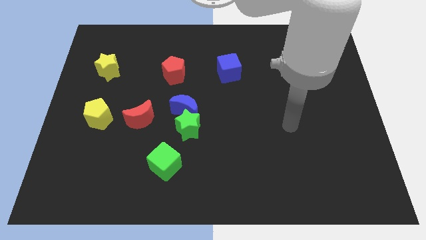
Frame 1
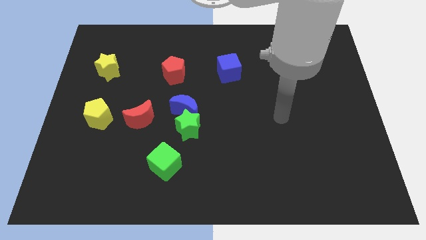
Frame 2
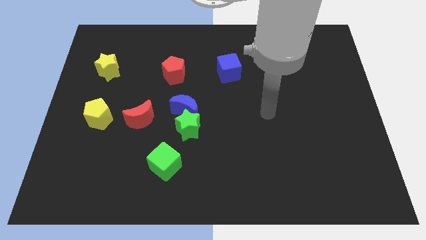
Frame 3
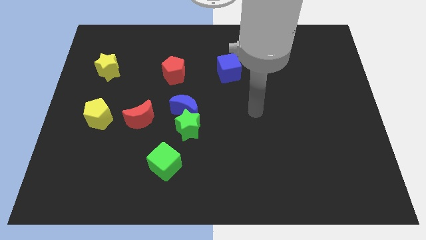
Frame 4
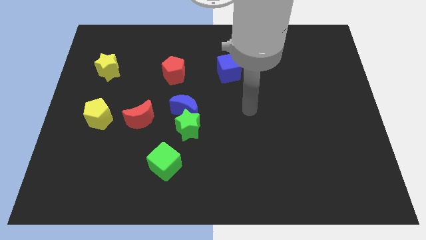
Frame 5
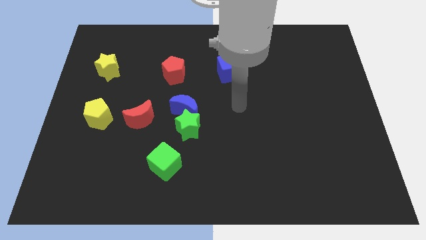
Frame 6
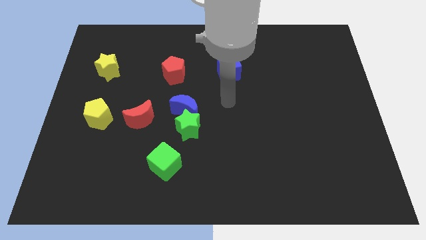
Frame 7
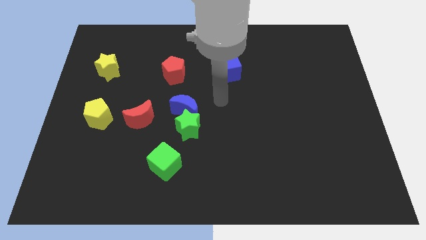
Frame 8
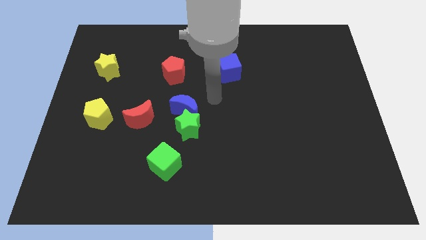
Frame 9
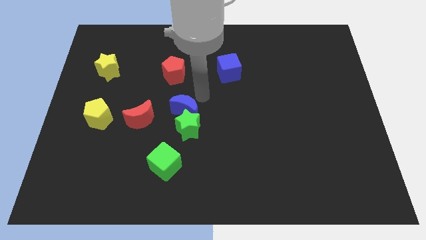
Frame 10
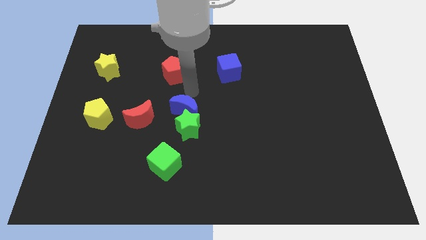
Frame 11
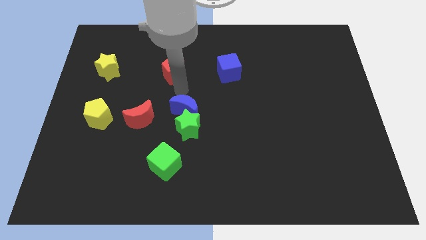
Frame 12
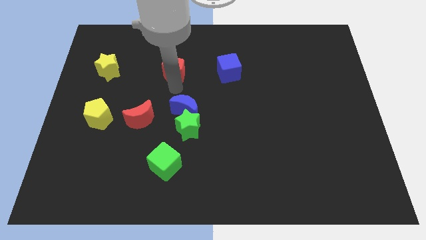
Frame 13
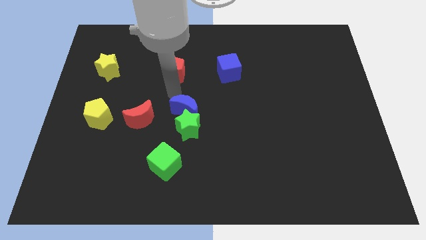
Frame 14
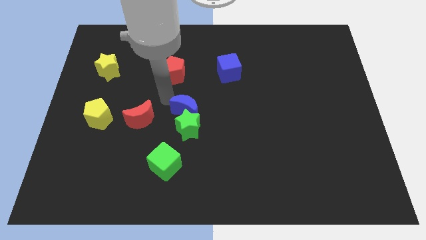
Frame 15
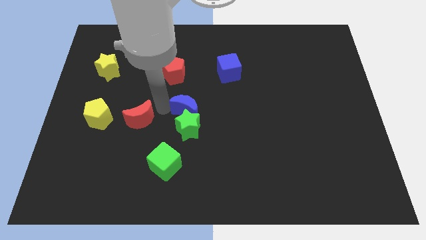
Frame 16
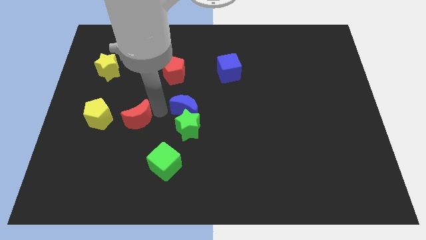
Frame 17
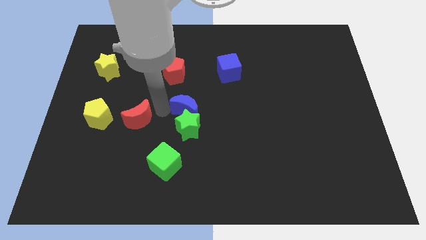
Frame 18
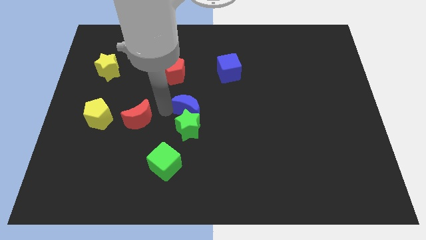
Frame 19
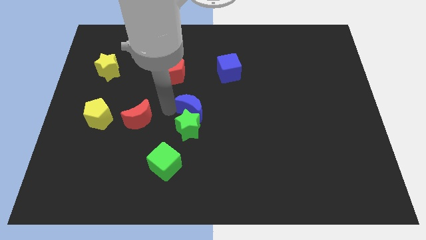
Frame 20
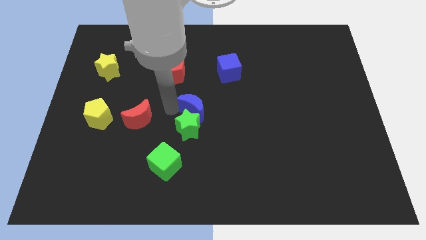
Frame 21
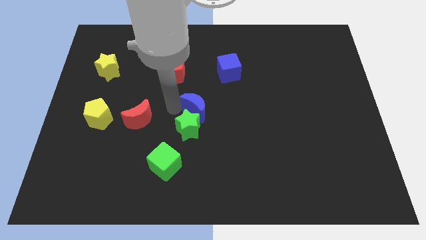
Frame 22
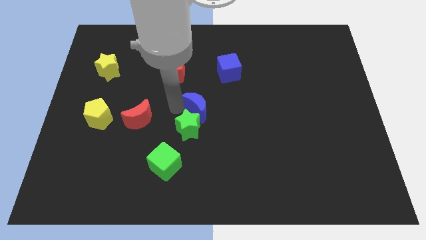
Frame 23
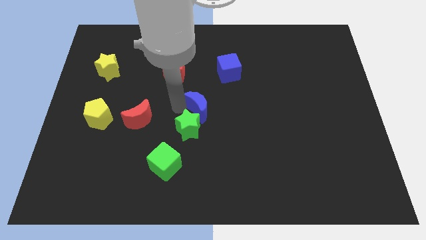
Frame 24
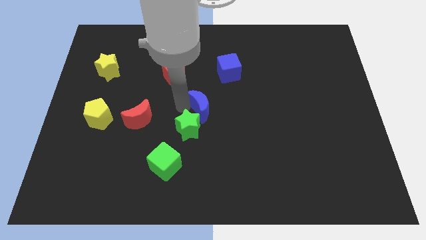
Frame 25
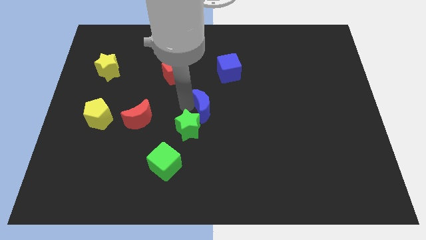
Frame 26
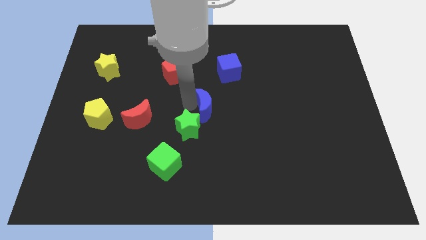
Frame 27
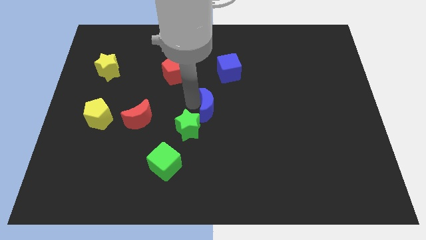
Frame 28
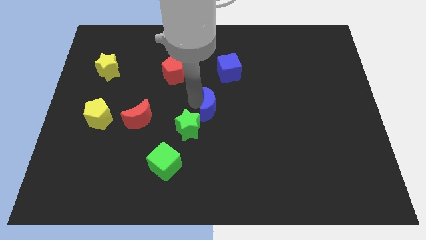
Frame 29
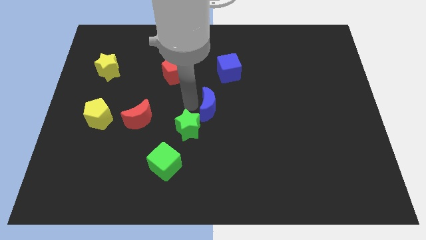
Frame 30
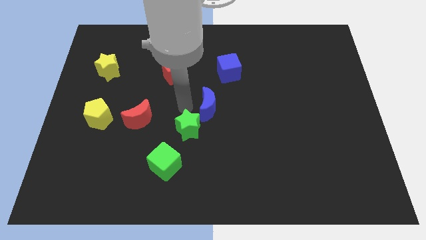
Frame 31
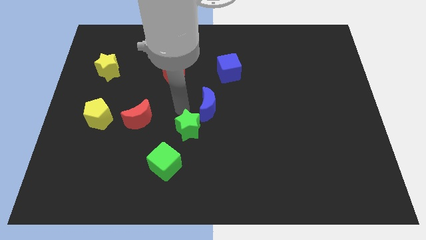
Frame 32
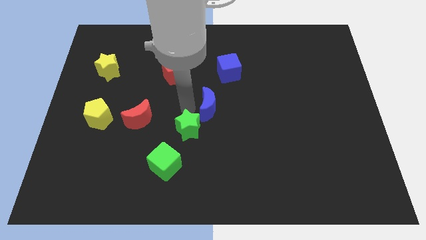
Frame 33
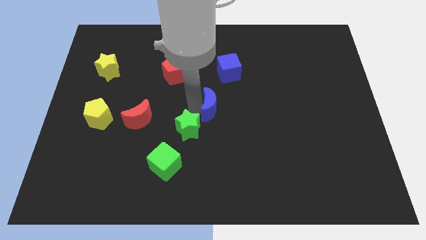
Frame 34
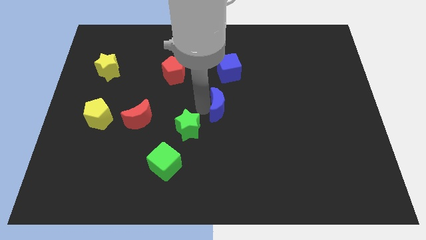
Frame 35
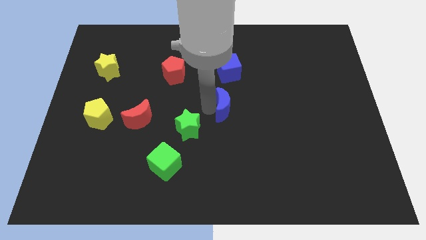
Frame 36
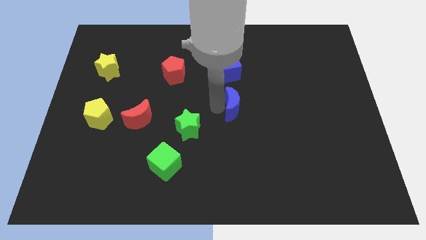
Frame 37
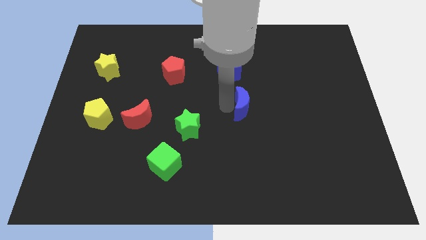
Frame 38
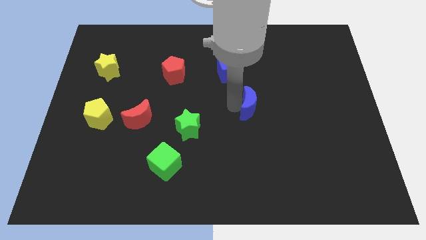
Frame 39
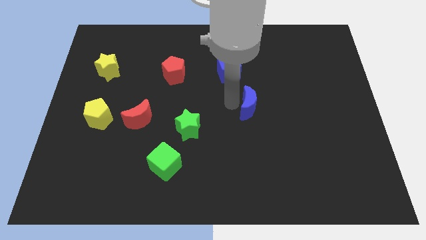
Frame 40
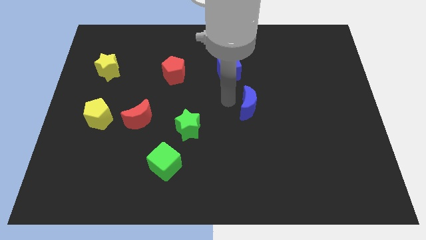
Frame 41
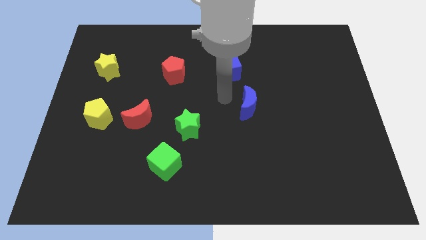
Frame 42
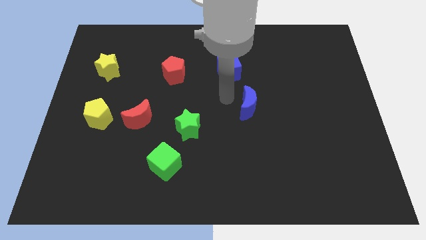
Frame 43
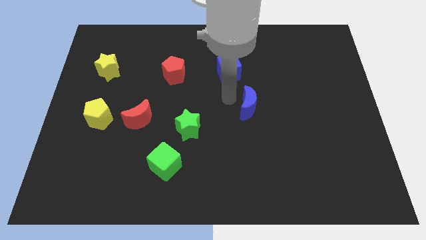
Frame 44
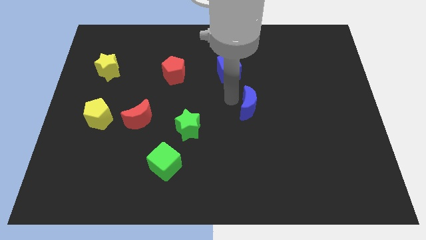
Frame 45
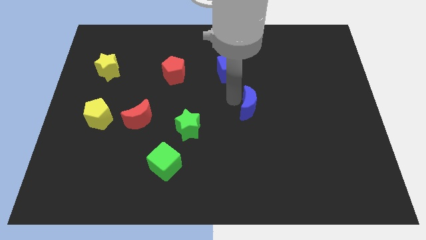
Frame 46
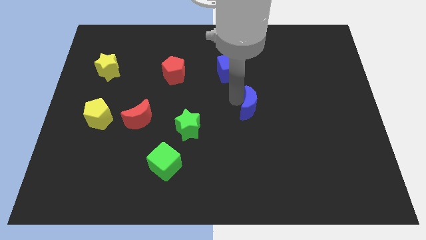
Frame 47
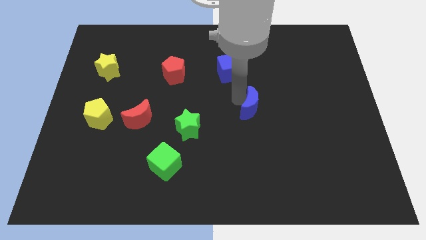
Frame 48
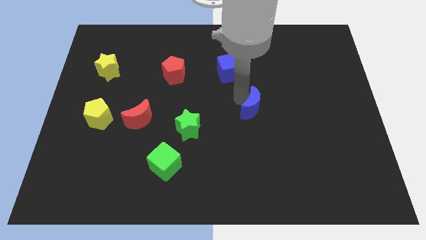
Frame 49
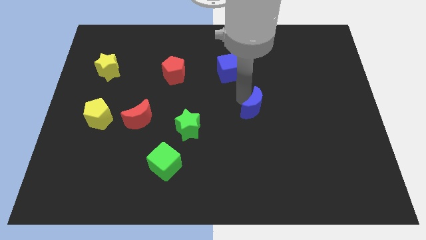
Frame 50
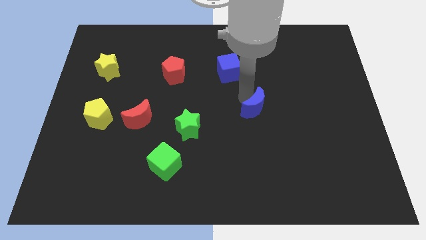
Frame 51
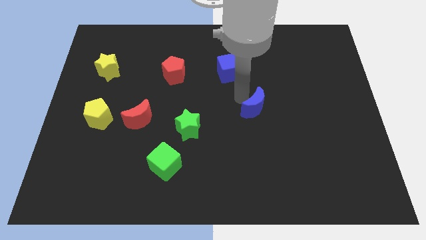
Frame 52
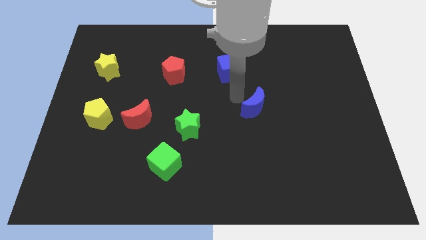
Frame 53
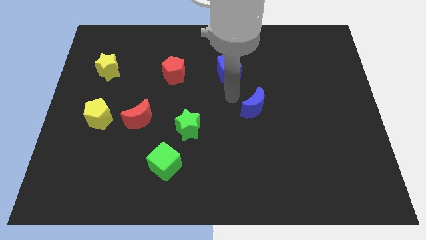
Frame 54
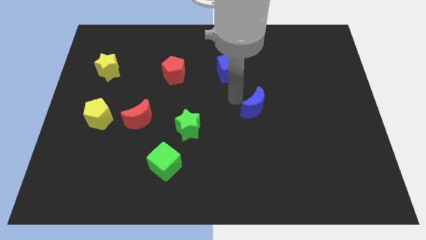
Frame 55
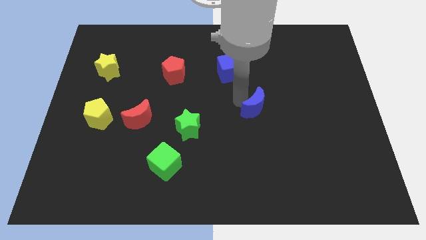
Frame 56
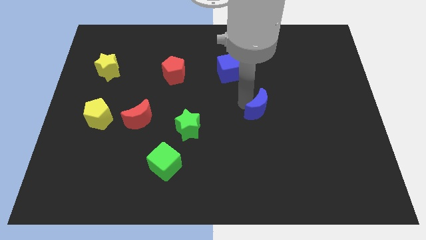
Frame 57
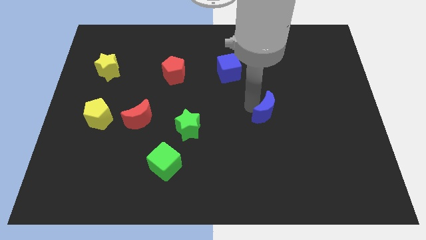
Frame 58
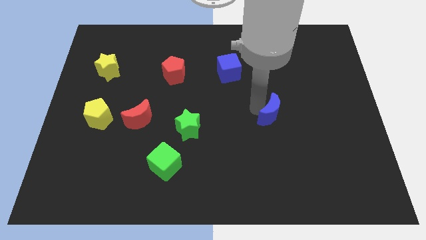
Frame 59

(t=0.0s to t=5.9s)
slide the blue moon to the right

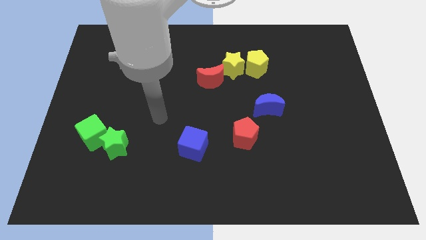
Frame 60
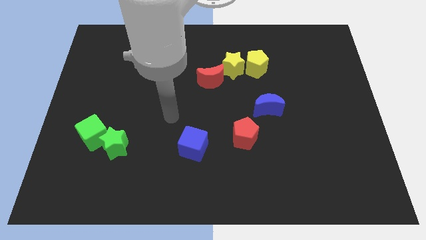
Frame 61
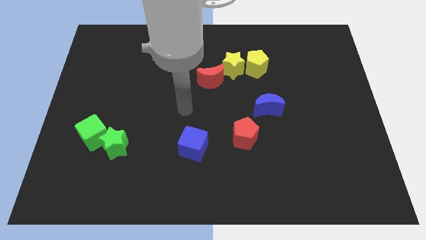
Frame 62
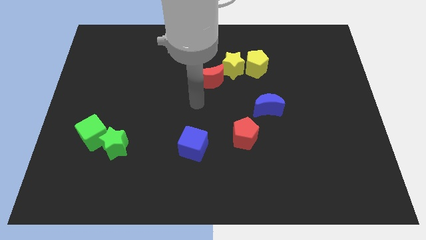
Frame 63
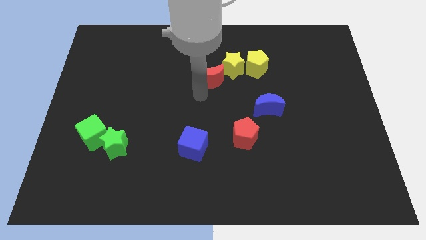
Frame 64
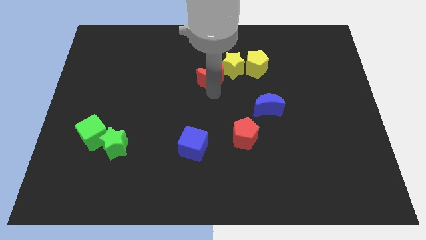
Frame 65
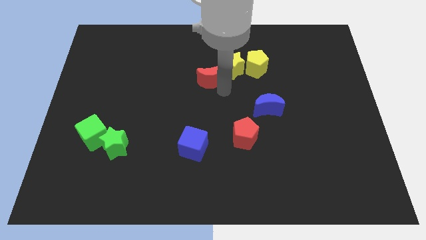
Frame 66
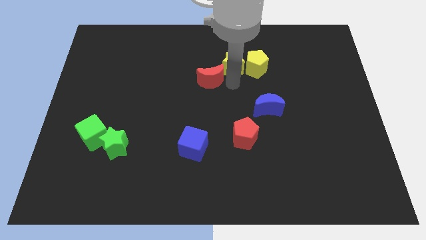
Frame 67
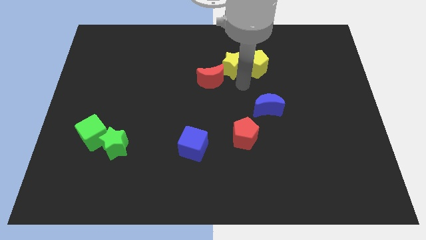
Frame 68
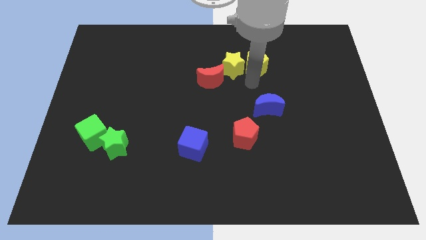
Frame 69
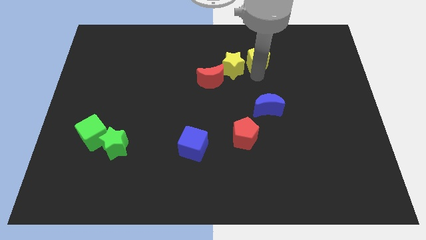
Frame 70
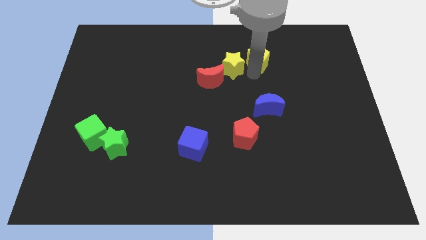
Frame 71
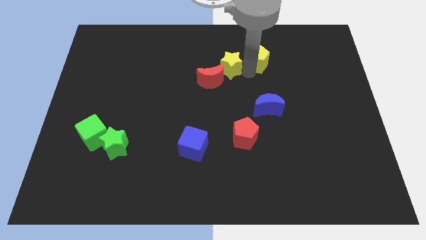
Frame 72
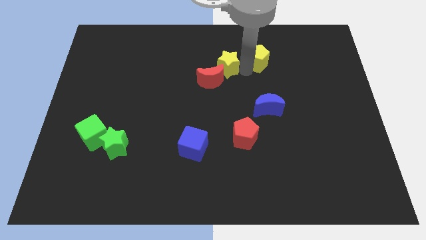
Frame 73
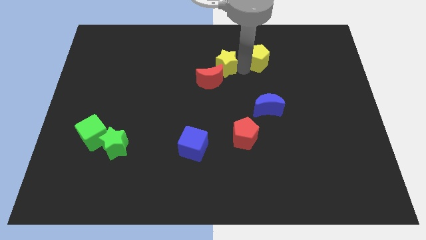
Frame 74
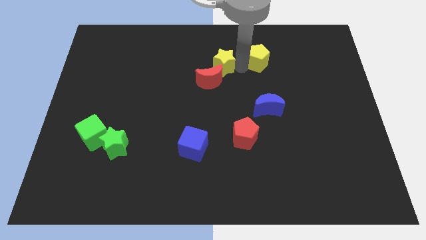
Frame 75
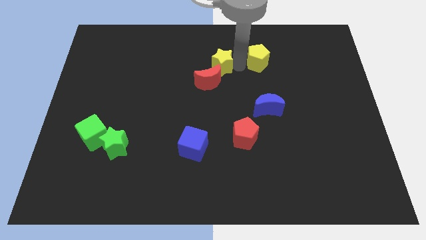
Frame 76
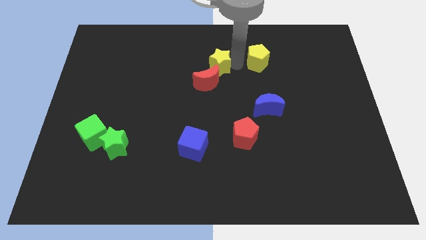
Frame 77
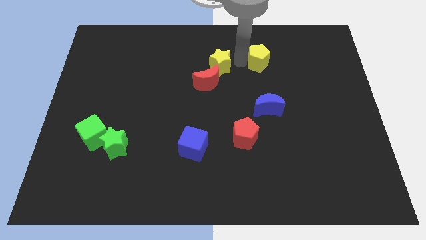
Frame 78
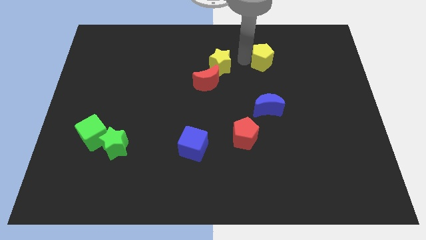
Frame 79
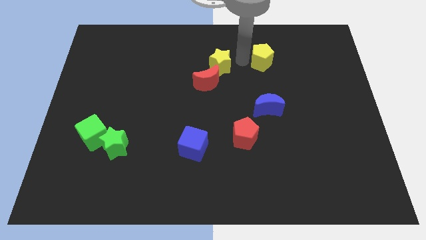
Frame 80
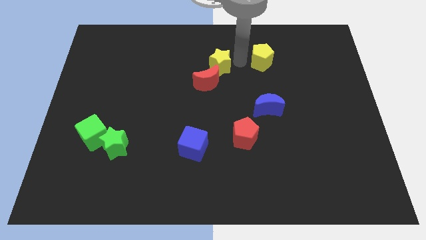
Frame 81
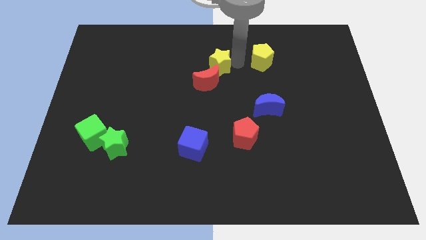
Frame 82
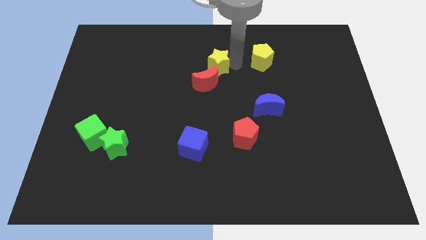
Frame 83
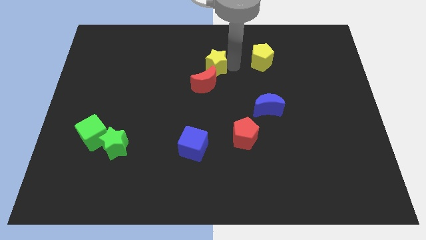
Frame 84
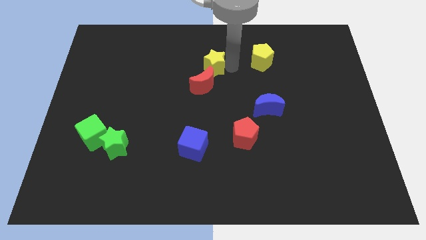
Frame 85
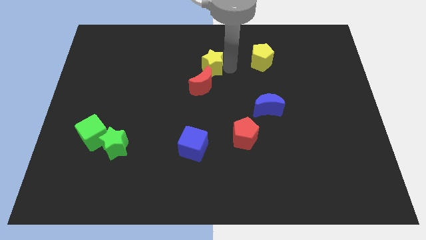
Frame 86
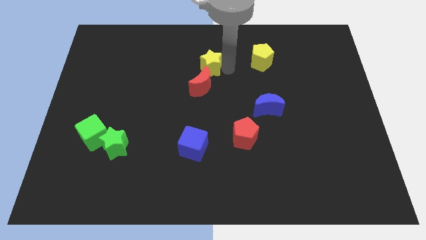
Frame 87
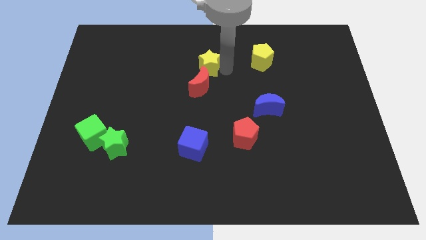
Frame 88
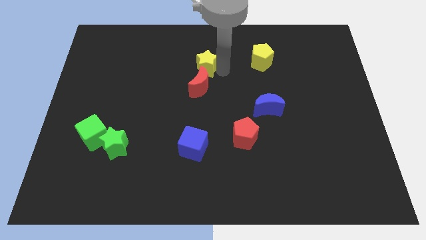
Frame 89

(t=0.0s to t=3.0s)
slightly slide the yellow star left
